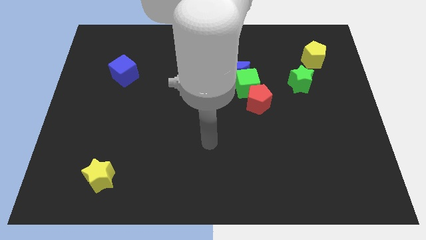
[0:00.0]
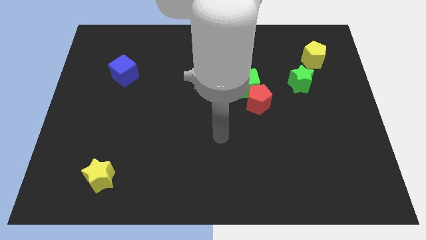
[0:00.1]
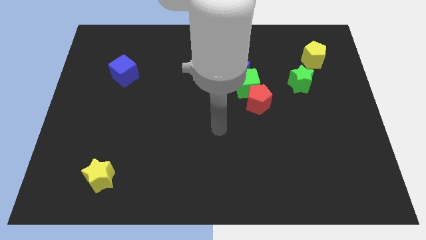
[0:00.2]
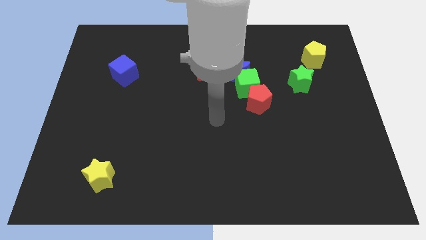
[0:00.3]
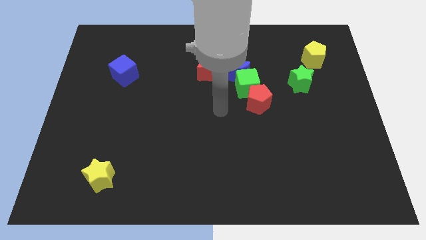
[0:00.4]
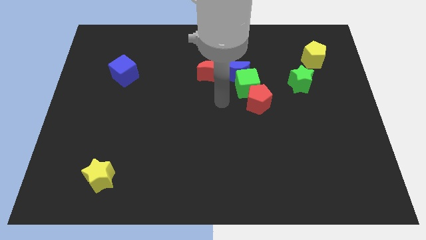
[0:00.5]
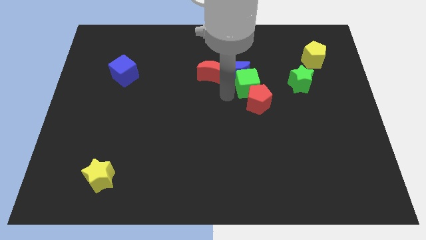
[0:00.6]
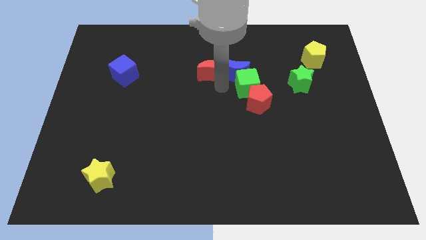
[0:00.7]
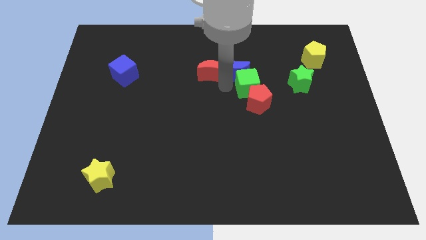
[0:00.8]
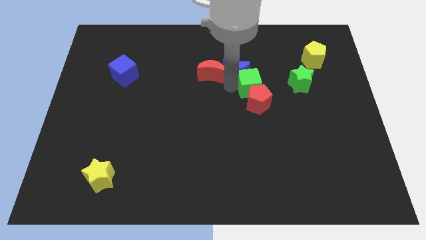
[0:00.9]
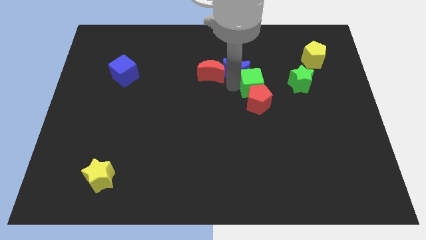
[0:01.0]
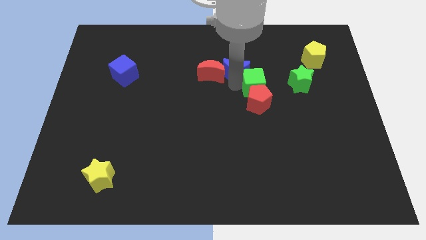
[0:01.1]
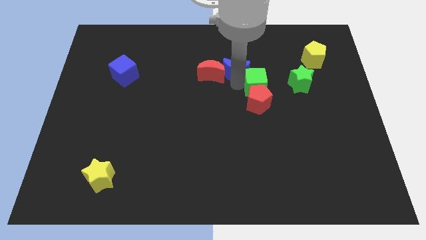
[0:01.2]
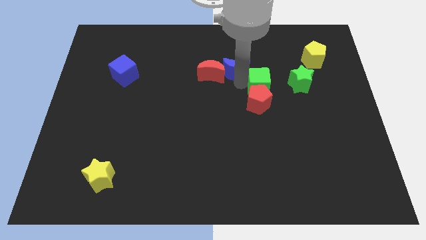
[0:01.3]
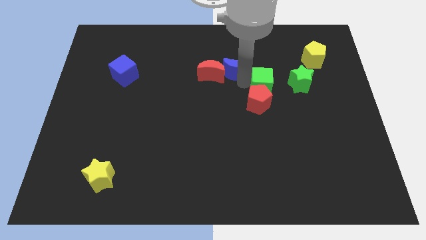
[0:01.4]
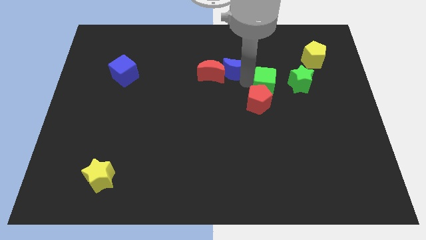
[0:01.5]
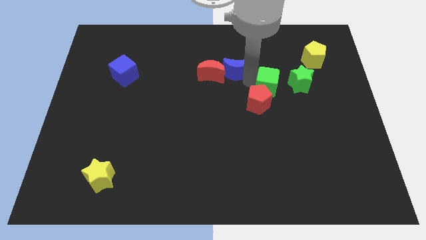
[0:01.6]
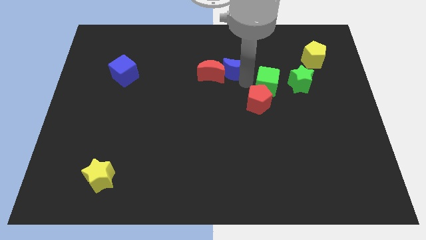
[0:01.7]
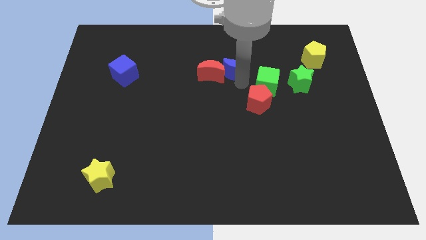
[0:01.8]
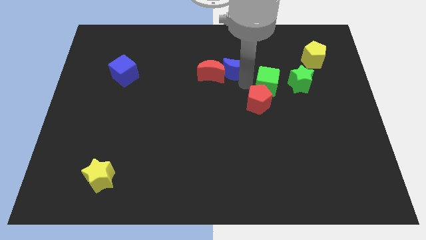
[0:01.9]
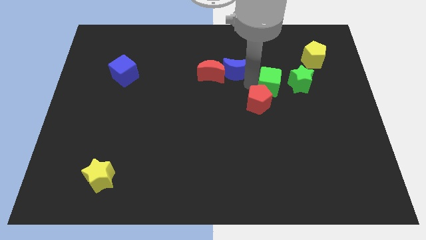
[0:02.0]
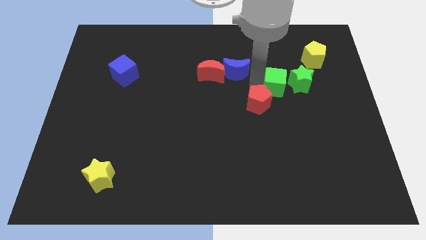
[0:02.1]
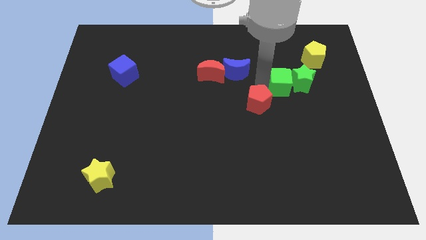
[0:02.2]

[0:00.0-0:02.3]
pull the green cube apart from the group of blocks

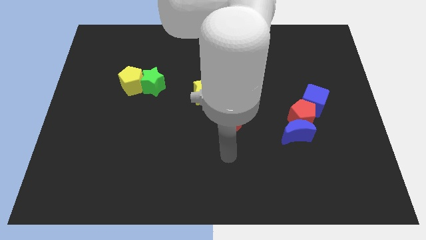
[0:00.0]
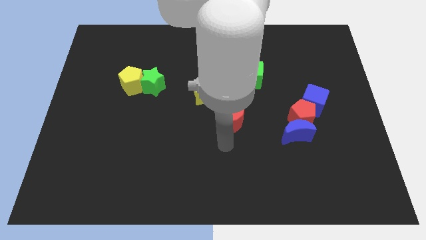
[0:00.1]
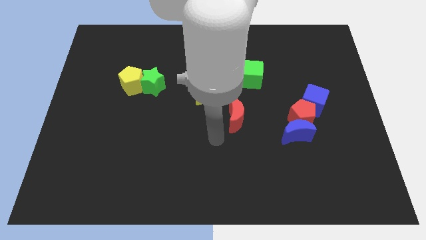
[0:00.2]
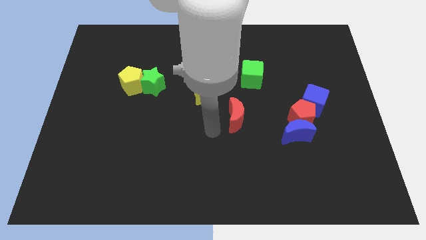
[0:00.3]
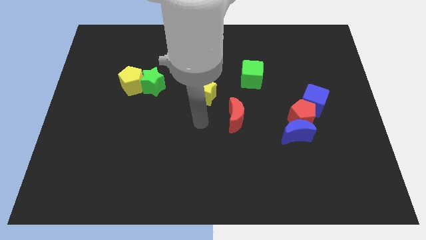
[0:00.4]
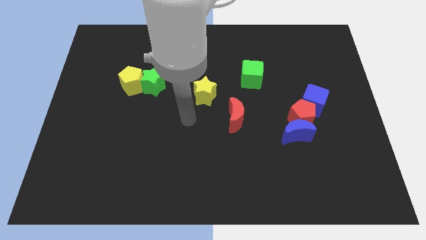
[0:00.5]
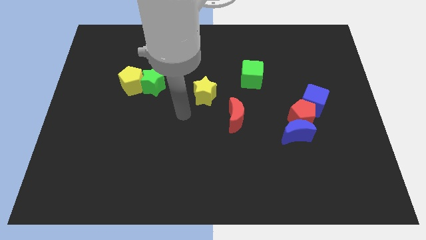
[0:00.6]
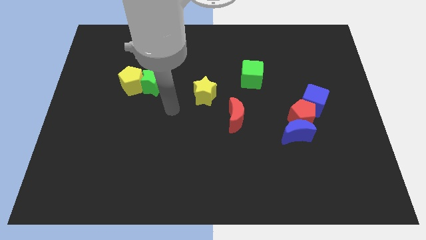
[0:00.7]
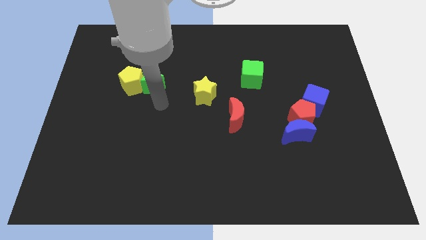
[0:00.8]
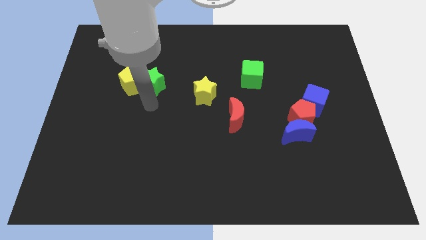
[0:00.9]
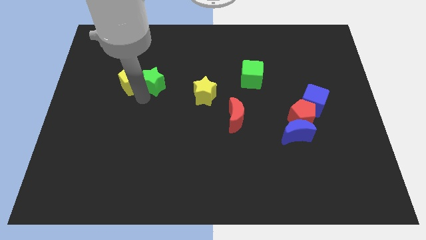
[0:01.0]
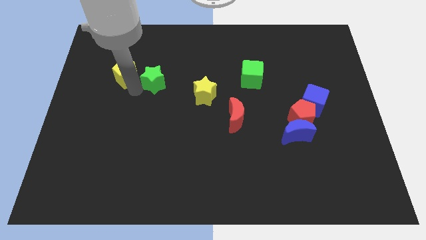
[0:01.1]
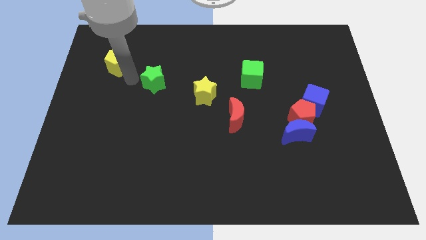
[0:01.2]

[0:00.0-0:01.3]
move the green star away from the yellow pentagon

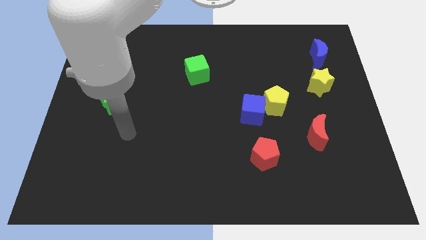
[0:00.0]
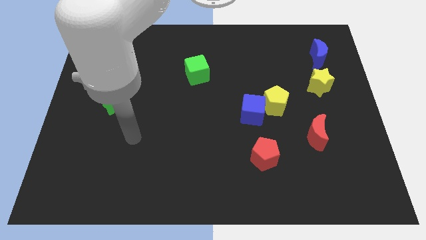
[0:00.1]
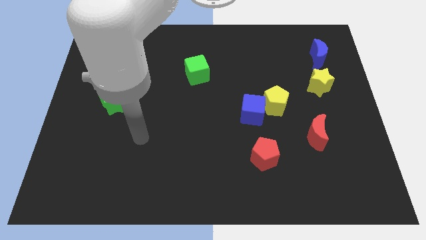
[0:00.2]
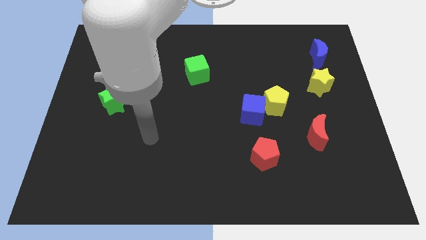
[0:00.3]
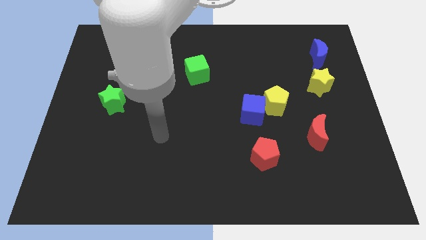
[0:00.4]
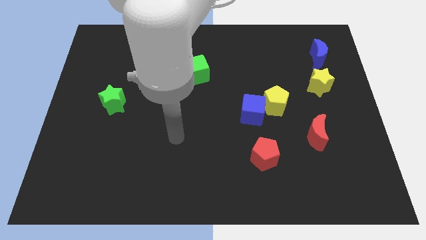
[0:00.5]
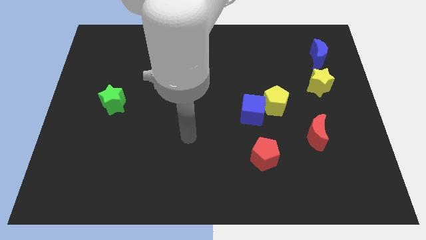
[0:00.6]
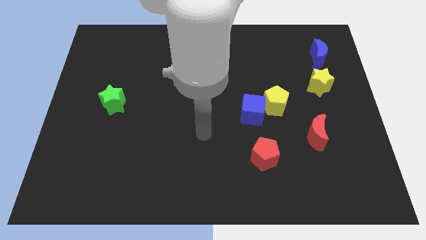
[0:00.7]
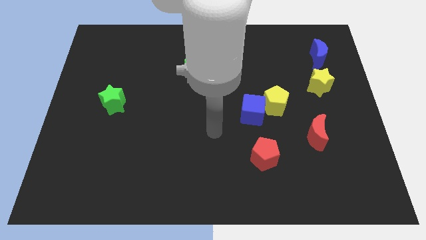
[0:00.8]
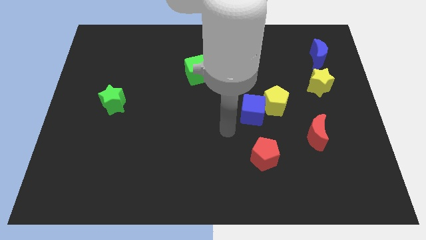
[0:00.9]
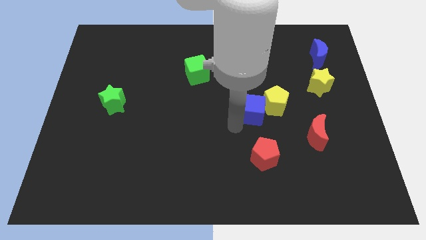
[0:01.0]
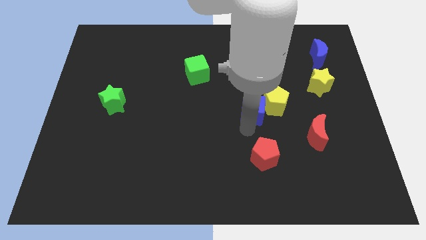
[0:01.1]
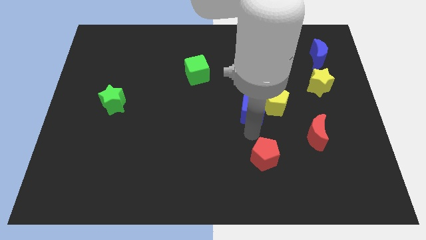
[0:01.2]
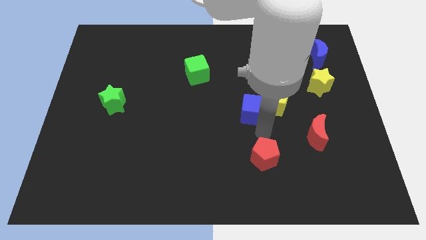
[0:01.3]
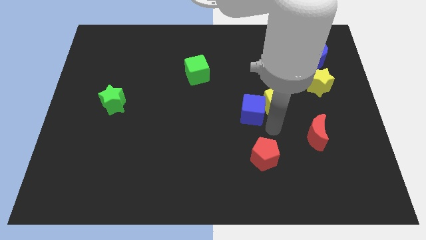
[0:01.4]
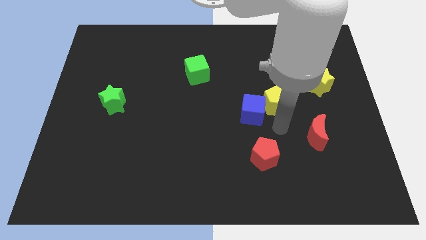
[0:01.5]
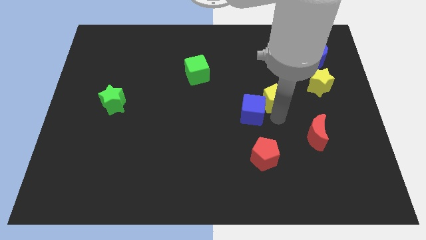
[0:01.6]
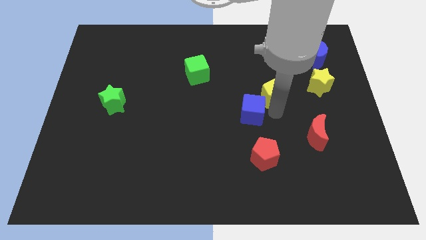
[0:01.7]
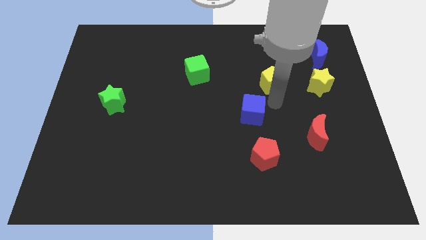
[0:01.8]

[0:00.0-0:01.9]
separate the blue cube from the yellow pentagon

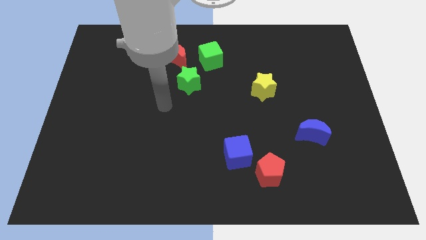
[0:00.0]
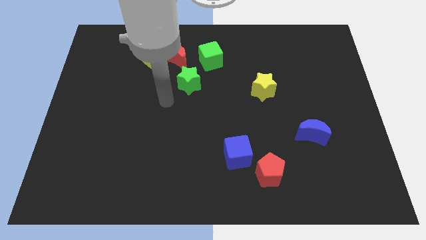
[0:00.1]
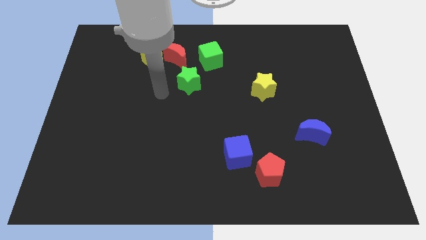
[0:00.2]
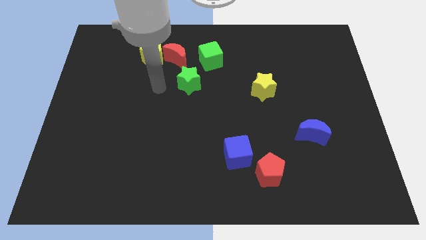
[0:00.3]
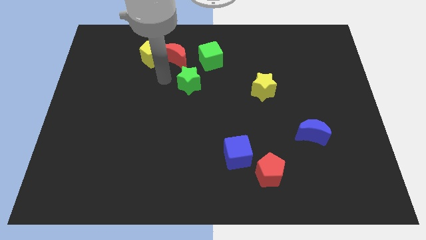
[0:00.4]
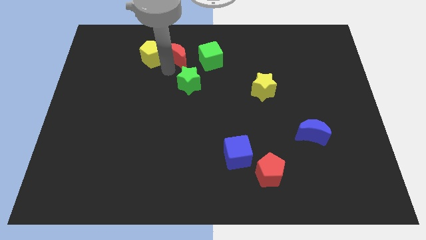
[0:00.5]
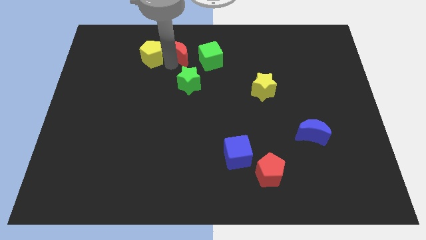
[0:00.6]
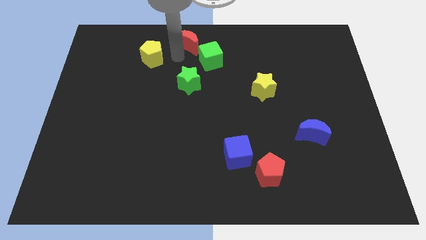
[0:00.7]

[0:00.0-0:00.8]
separate the yellow pentagon from the red moon

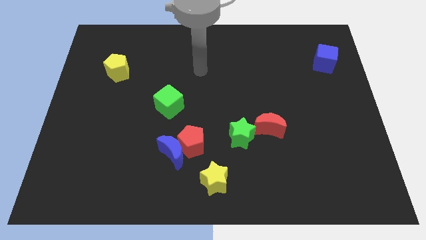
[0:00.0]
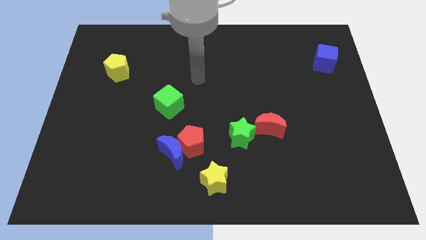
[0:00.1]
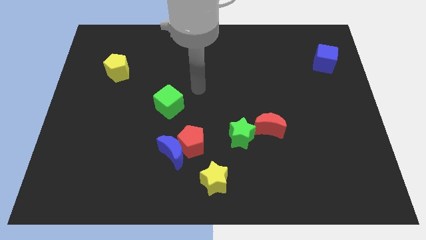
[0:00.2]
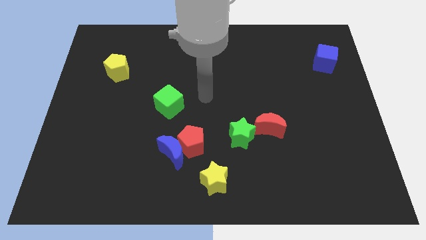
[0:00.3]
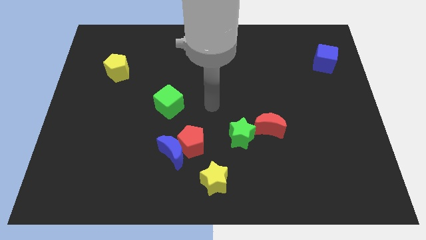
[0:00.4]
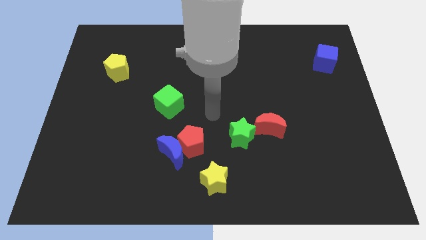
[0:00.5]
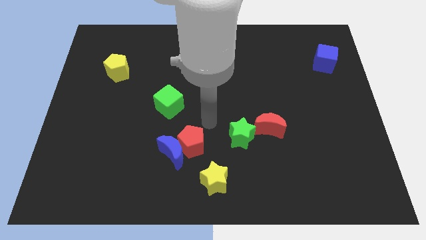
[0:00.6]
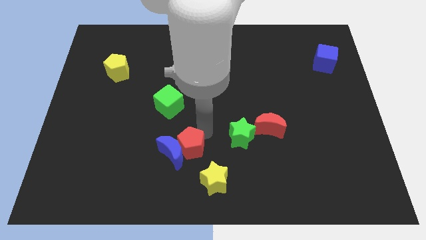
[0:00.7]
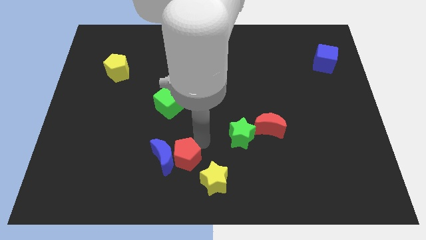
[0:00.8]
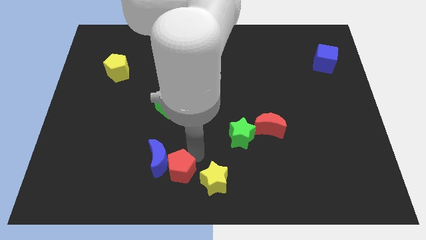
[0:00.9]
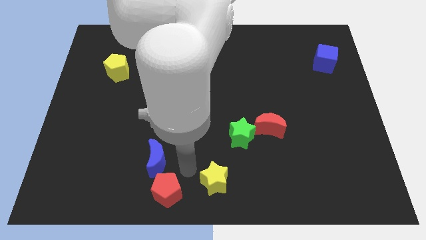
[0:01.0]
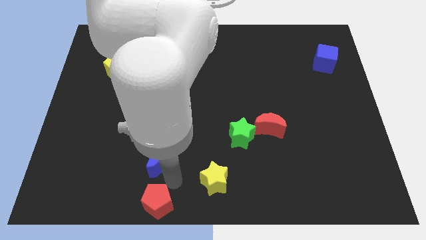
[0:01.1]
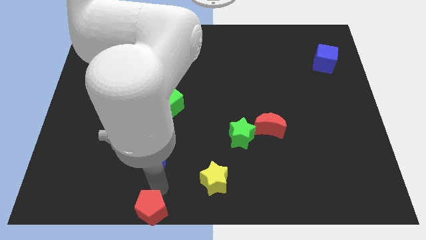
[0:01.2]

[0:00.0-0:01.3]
pull the blue moon apart from the red pentagon

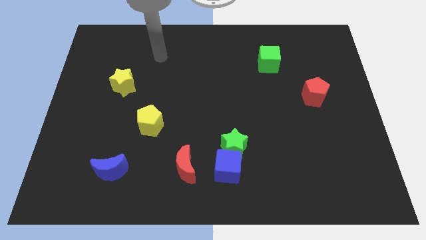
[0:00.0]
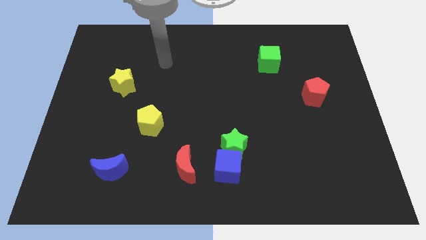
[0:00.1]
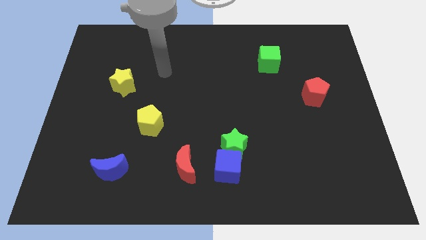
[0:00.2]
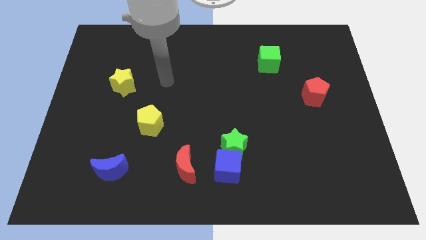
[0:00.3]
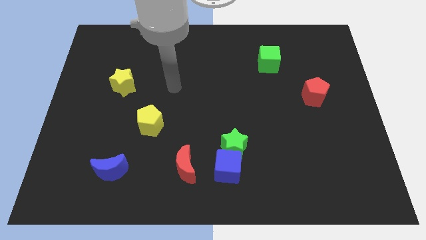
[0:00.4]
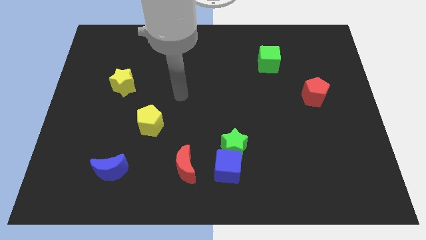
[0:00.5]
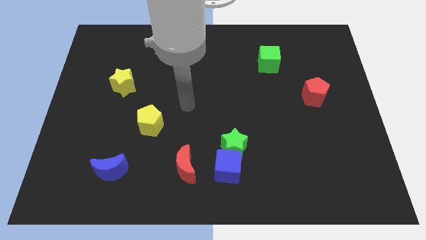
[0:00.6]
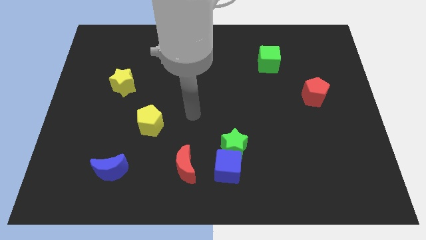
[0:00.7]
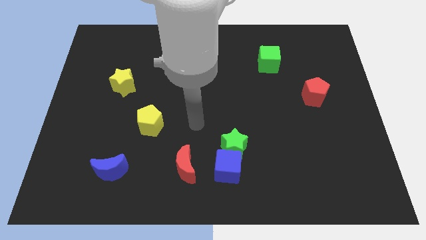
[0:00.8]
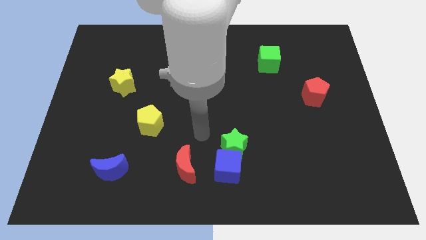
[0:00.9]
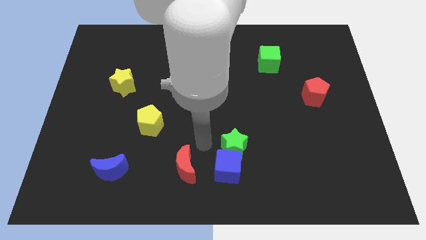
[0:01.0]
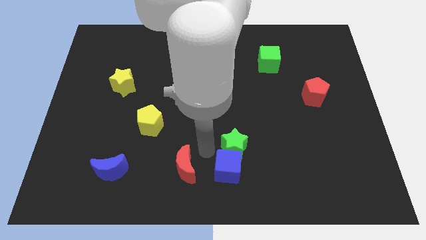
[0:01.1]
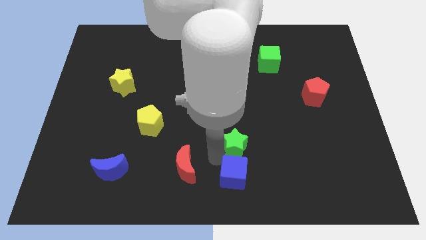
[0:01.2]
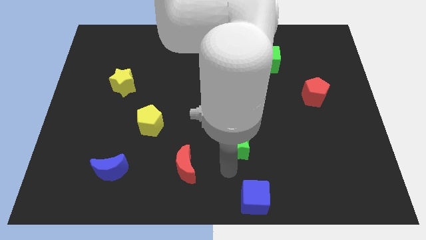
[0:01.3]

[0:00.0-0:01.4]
move the green star away from the blue cube

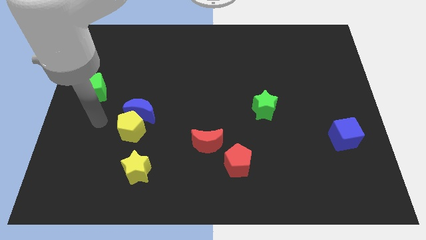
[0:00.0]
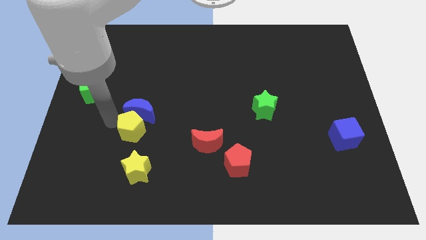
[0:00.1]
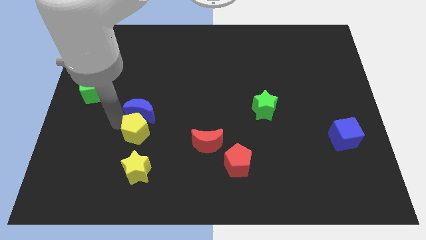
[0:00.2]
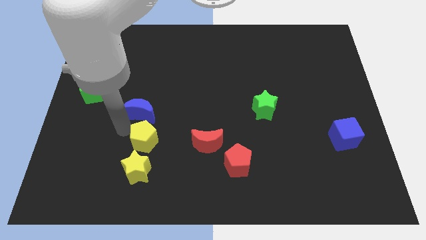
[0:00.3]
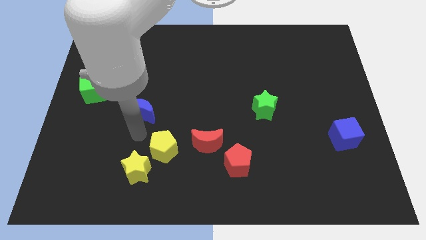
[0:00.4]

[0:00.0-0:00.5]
pull the blue moon apart from the yellow pentagon

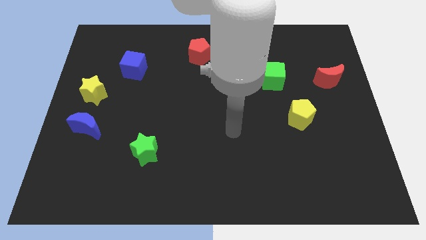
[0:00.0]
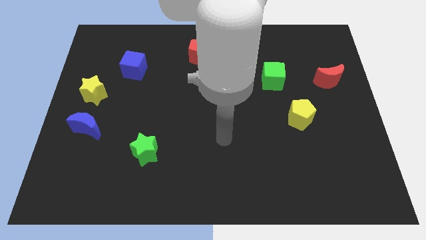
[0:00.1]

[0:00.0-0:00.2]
move the blue moon away from the yellow star
